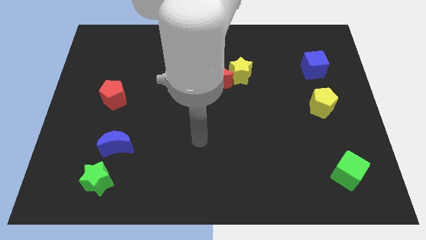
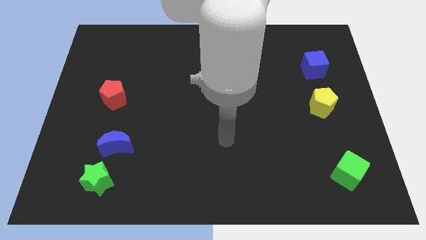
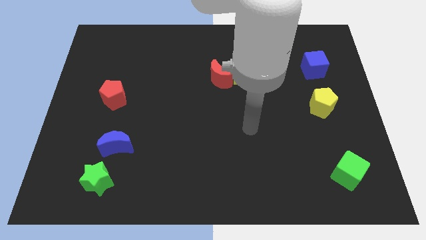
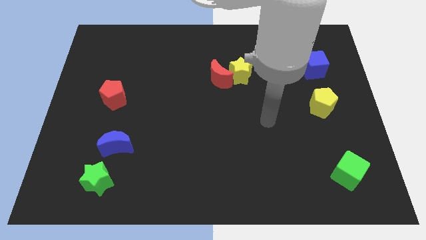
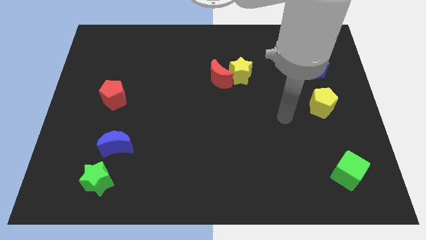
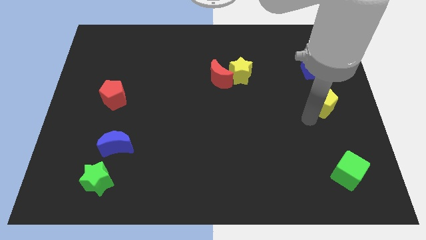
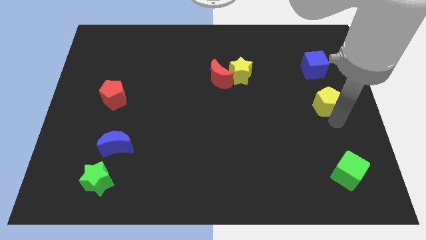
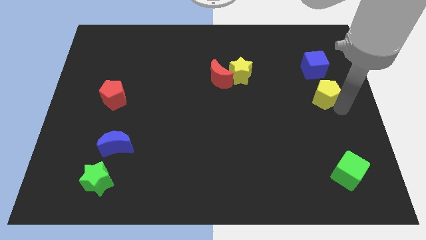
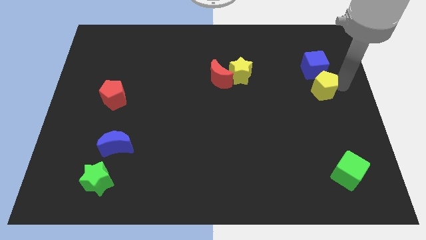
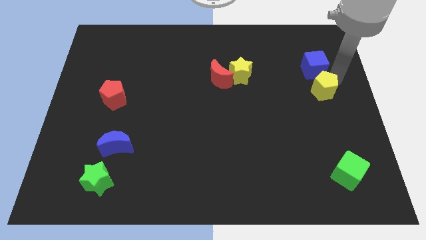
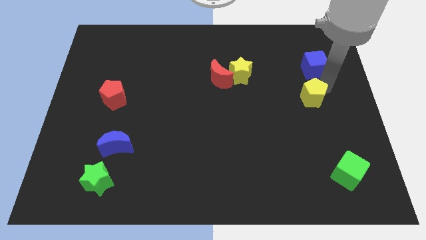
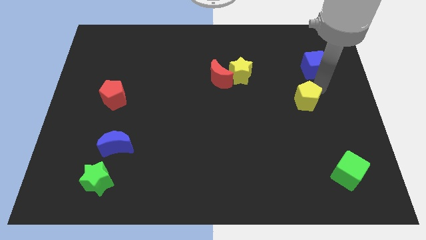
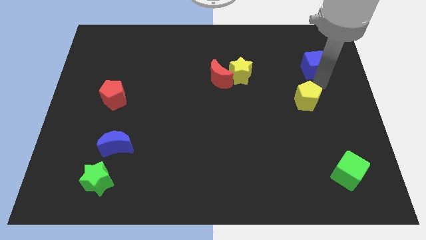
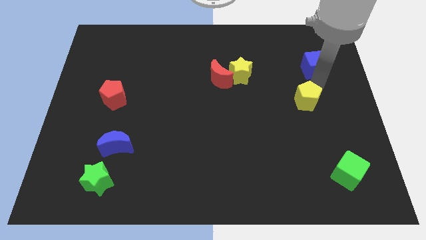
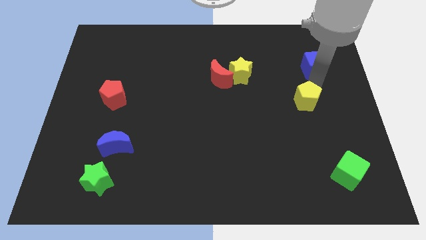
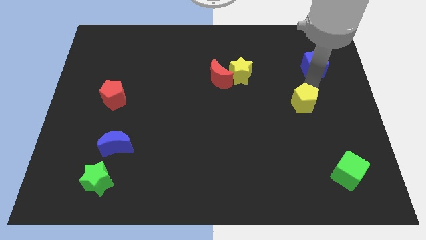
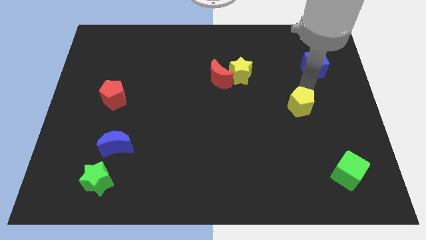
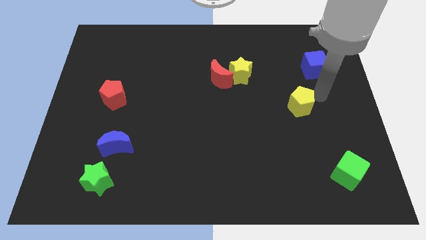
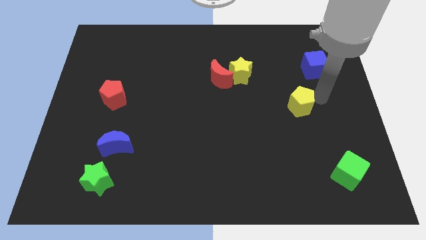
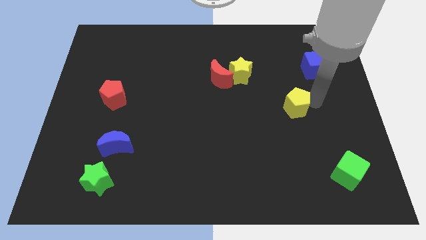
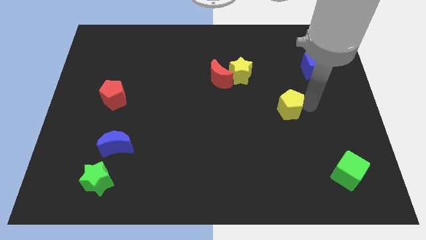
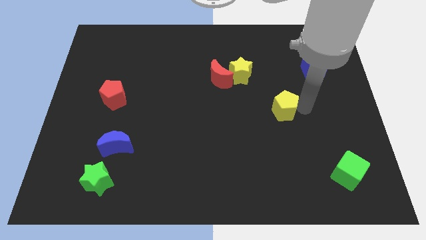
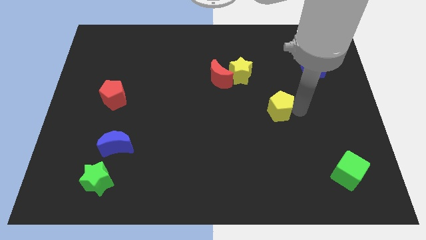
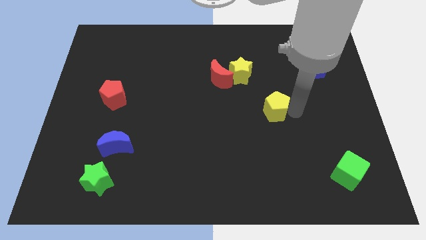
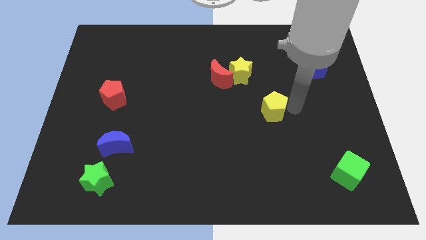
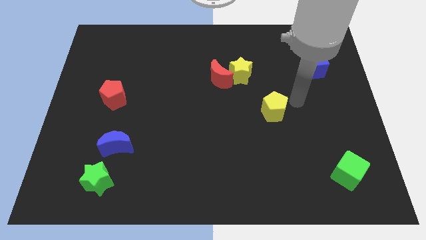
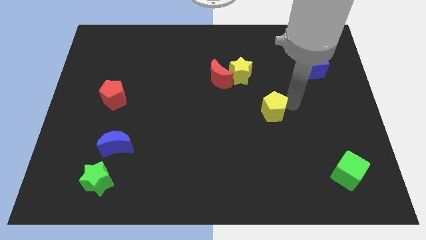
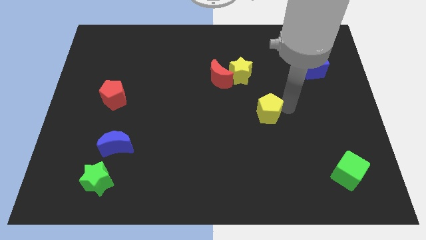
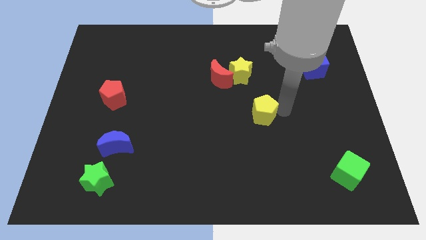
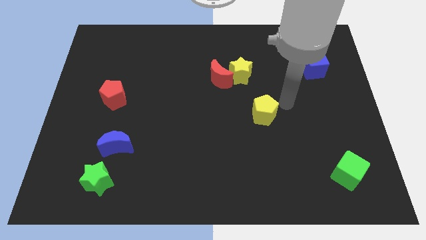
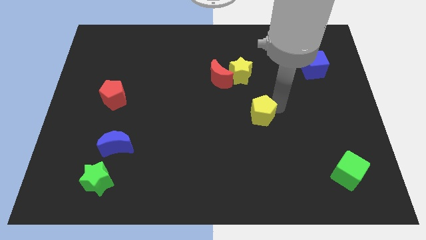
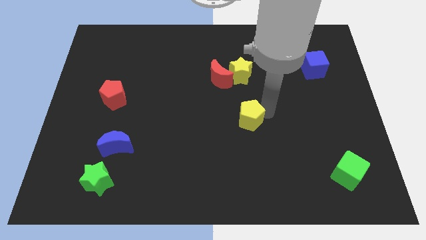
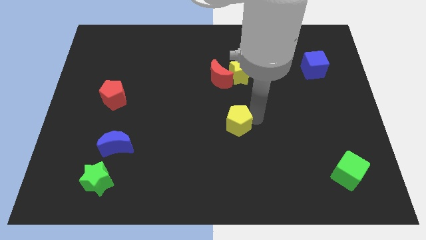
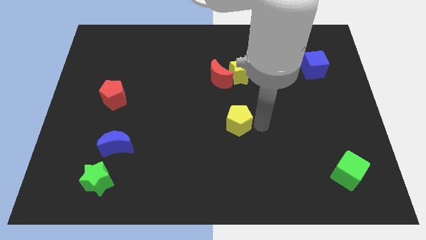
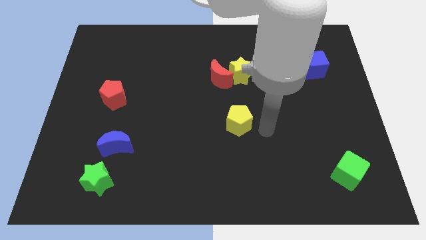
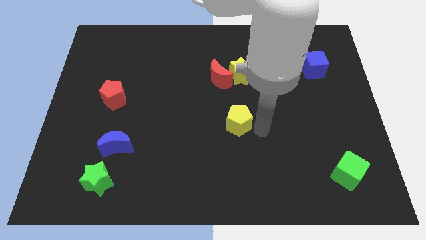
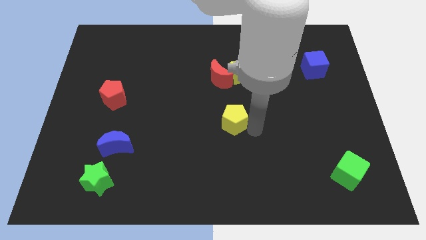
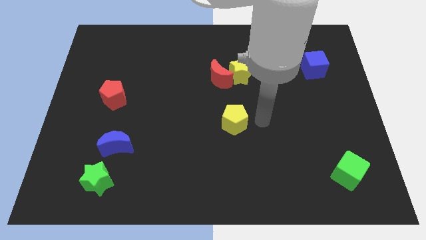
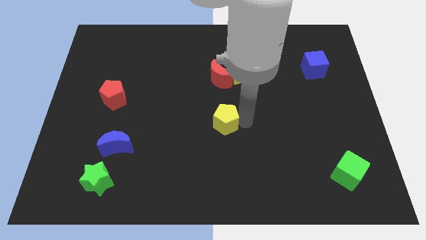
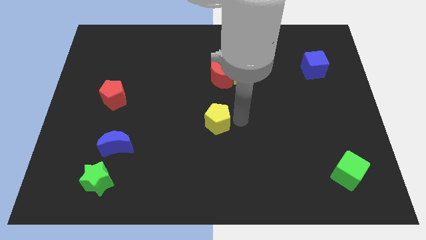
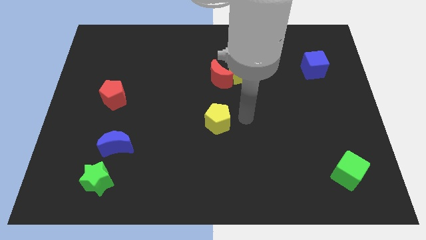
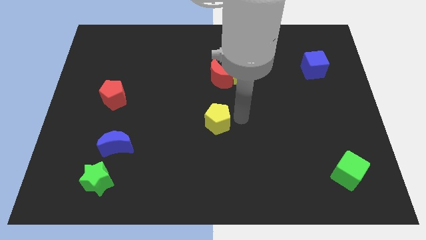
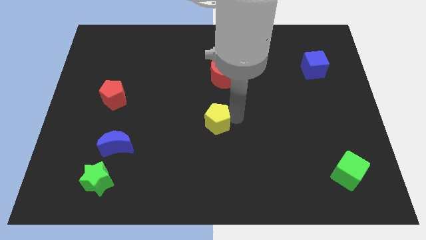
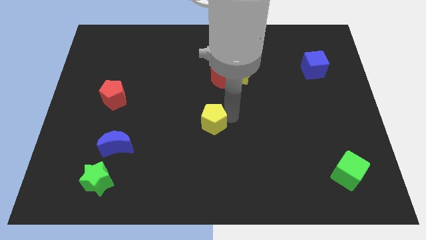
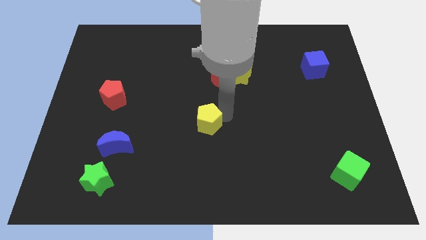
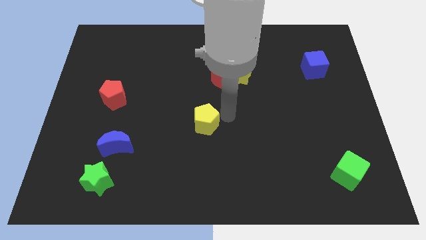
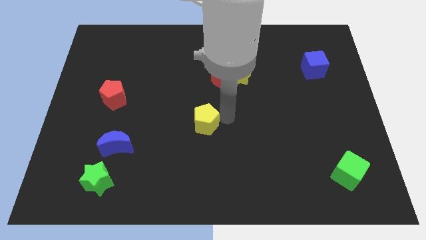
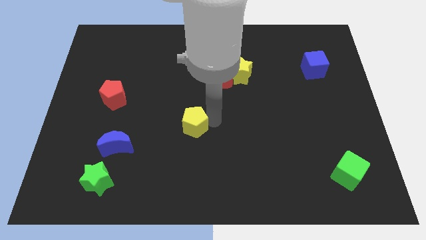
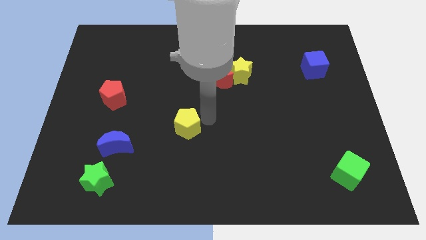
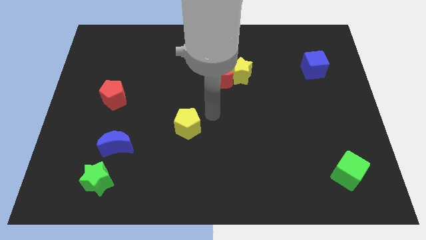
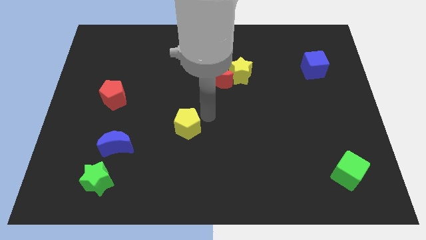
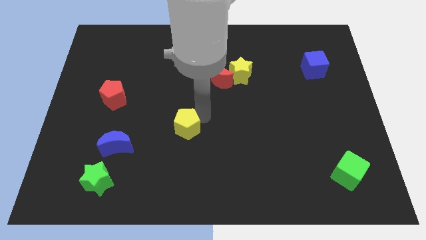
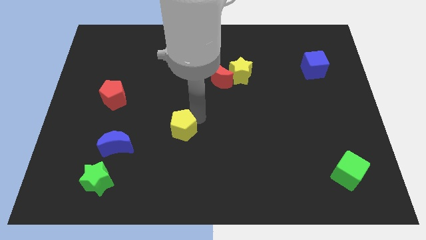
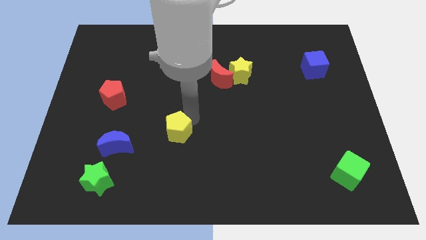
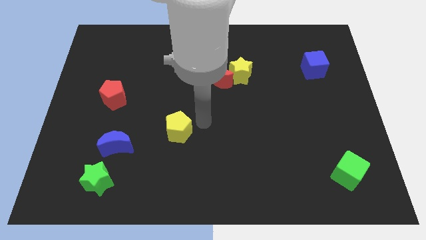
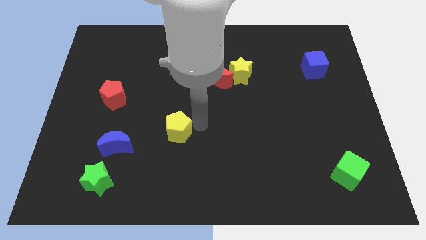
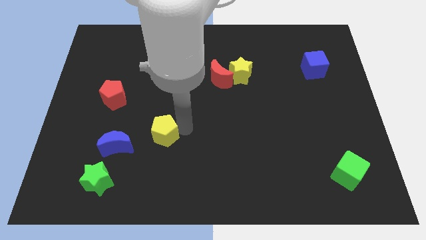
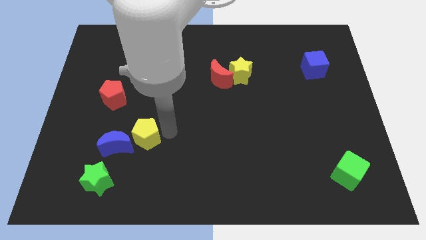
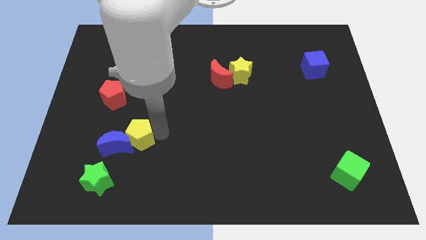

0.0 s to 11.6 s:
push the yellow pentagon close to the blue moon

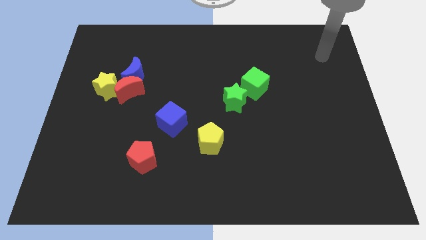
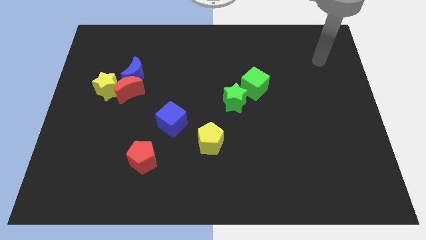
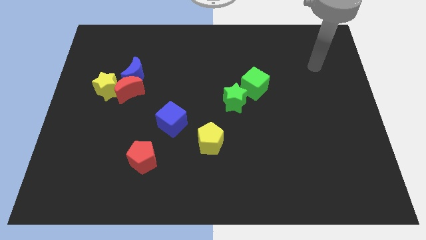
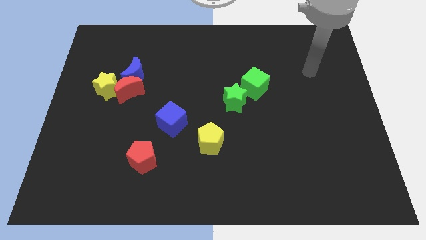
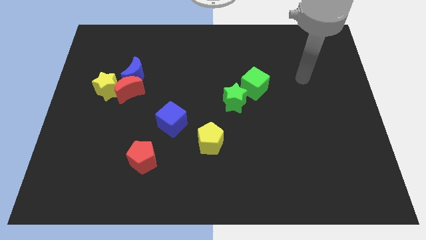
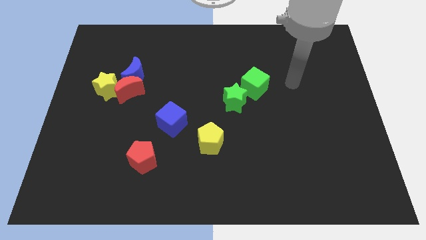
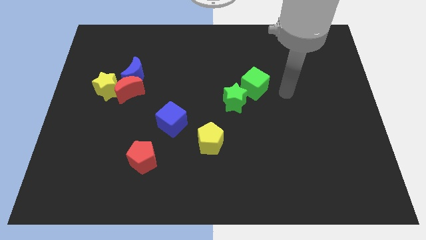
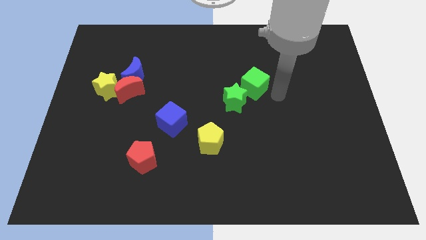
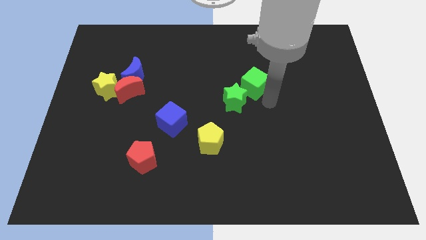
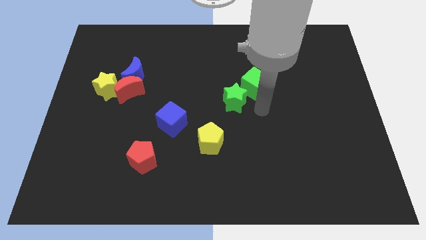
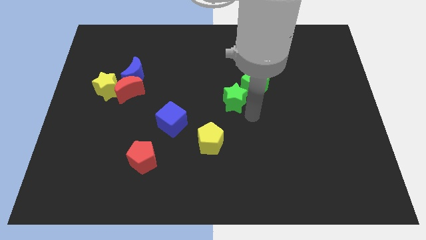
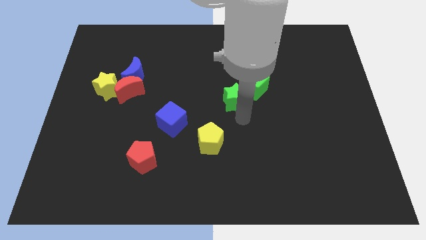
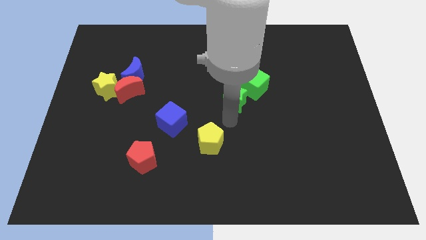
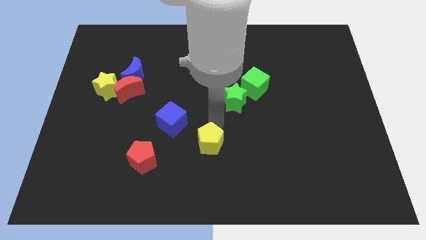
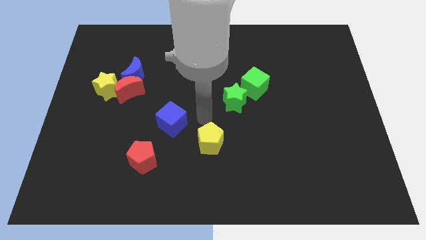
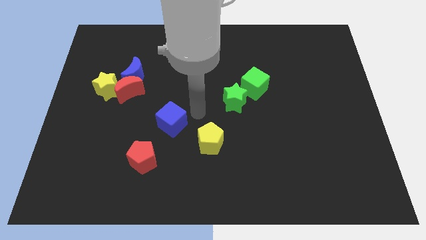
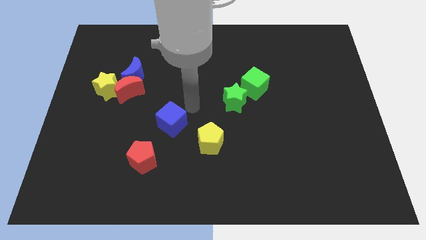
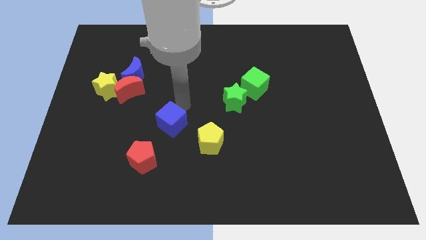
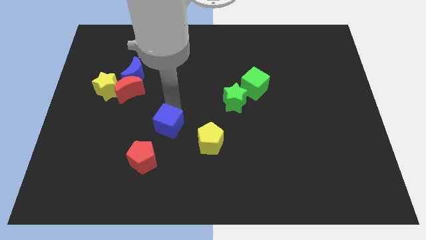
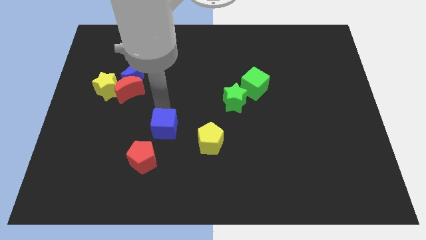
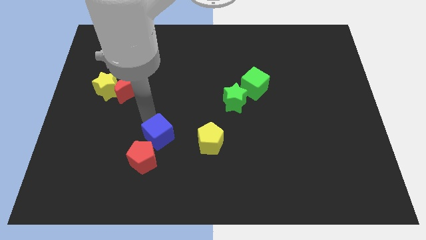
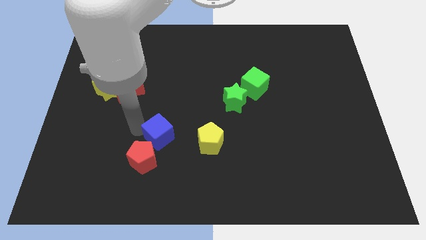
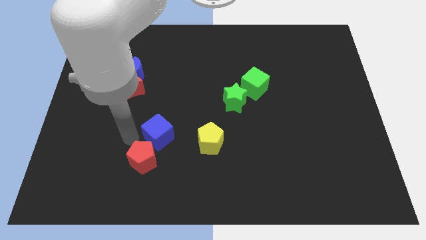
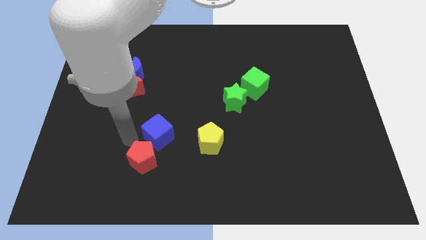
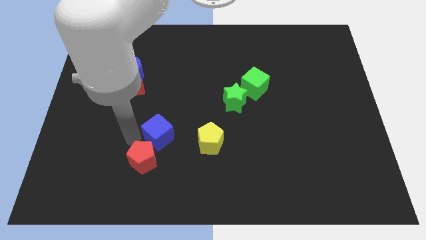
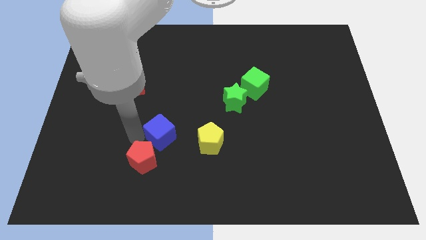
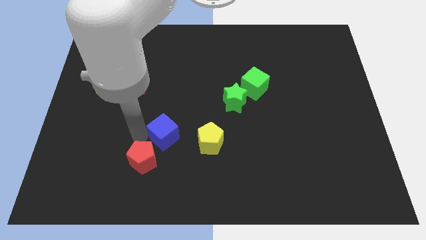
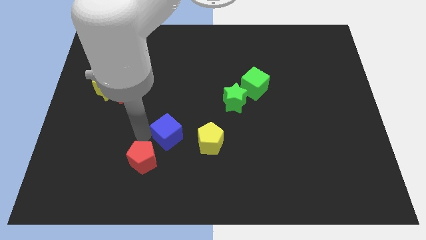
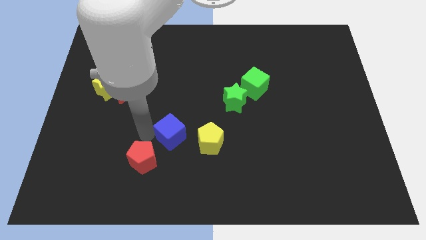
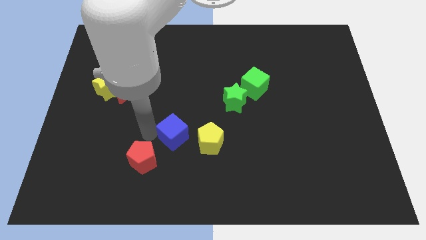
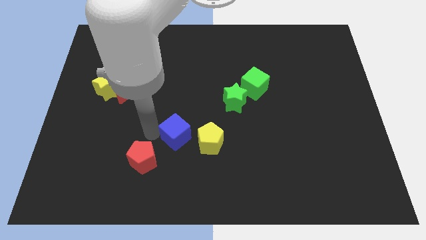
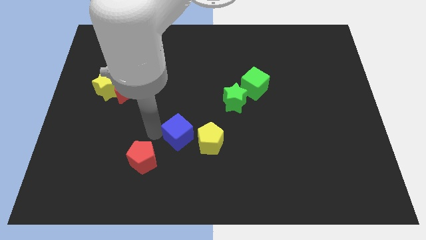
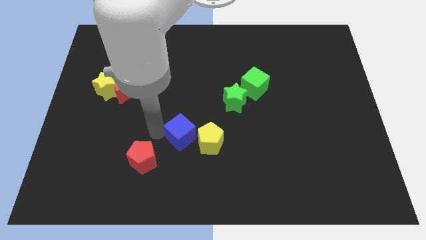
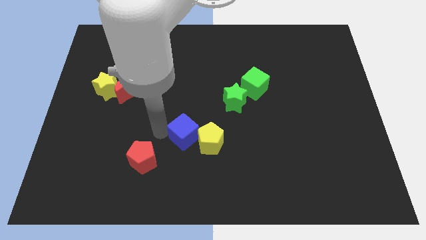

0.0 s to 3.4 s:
put the blue cube towards the yellow pentagon
